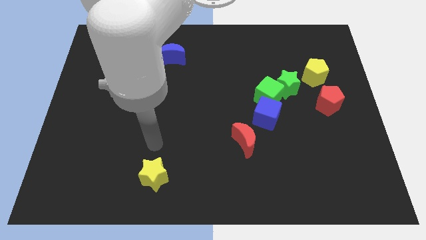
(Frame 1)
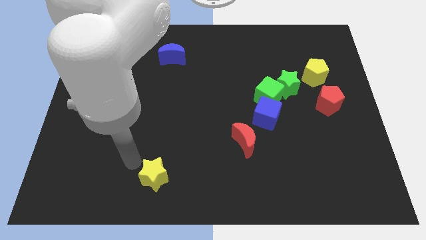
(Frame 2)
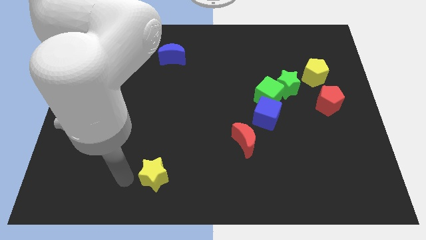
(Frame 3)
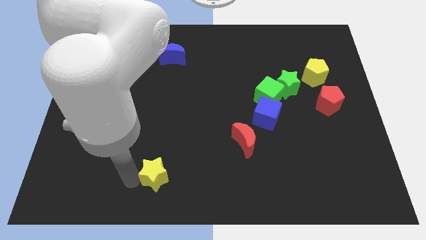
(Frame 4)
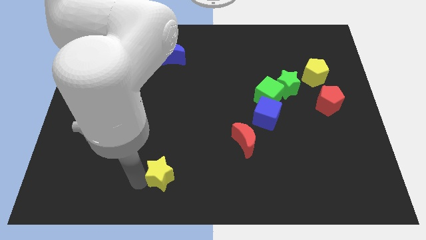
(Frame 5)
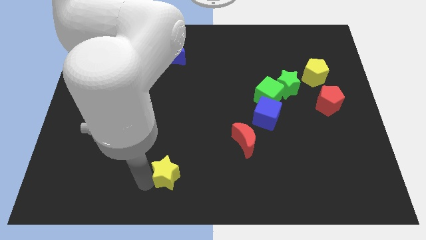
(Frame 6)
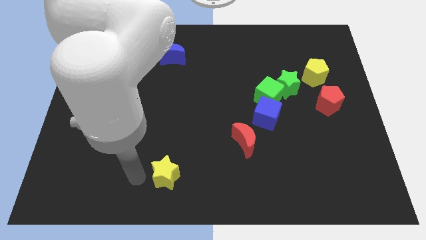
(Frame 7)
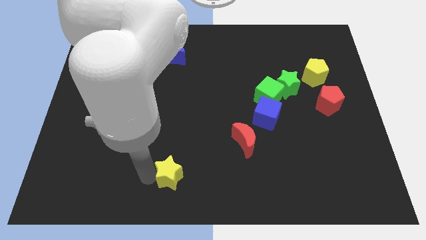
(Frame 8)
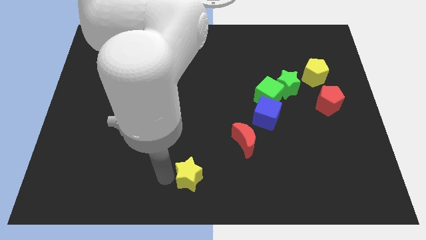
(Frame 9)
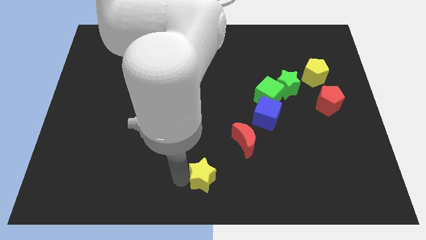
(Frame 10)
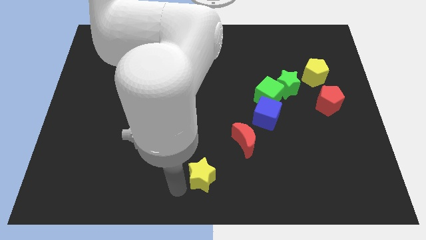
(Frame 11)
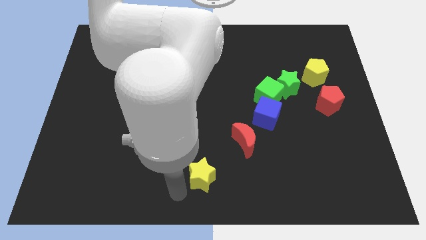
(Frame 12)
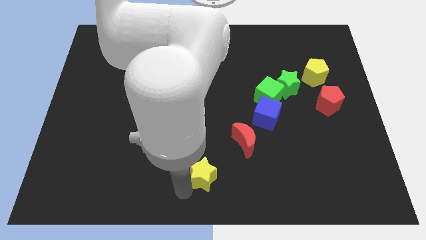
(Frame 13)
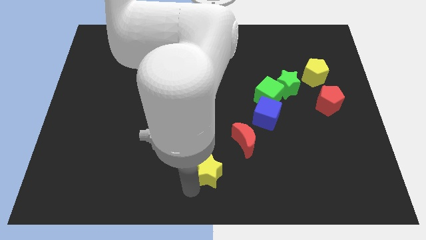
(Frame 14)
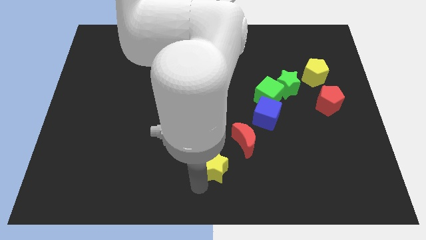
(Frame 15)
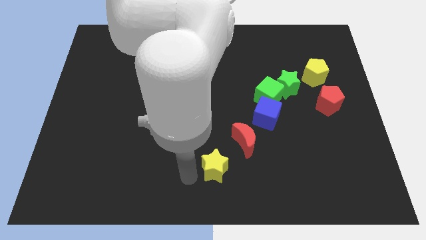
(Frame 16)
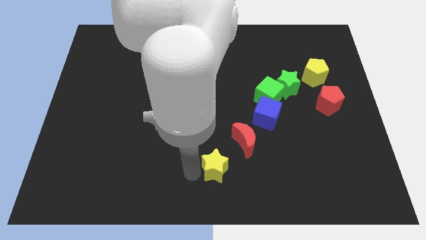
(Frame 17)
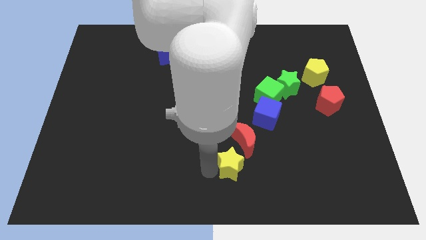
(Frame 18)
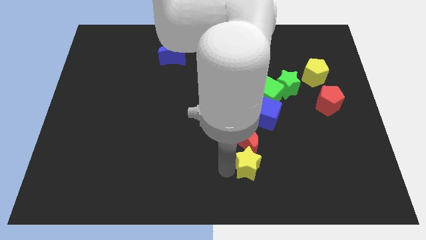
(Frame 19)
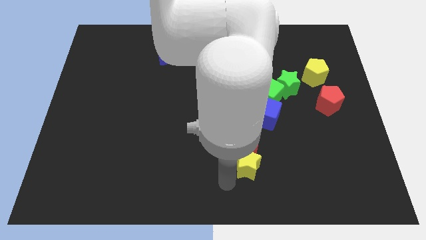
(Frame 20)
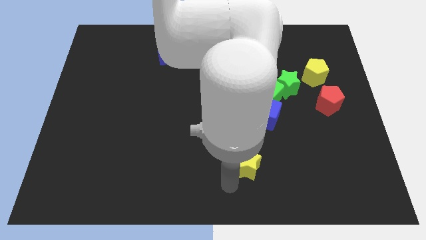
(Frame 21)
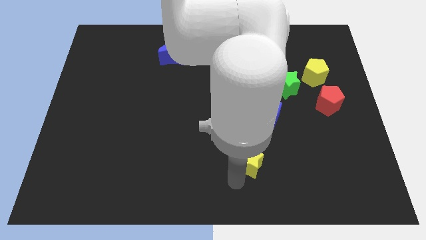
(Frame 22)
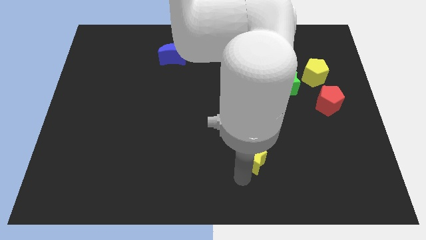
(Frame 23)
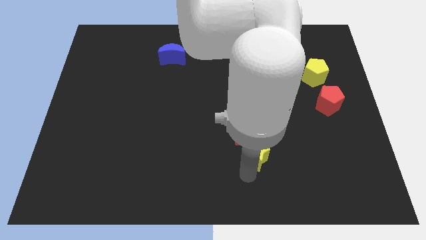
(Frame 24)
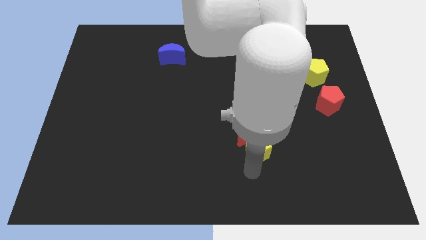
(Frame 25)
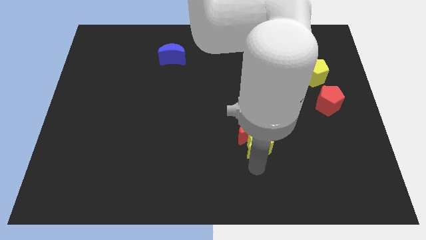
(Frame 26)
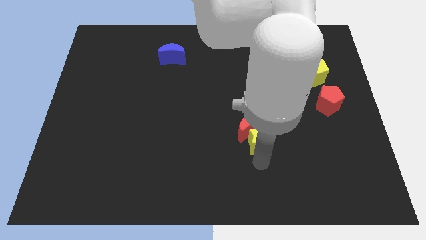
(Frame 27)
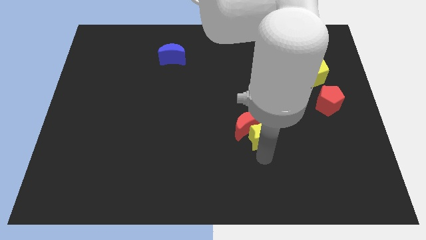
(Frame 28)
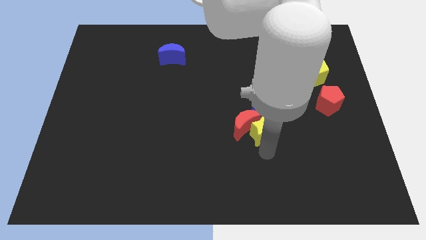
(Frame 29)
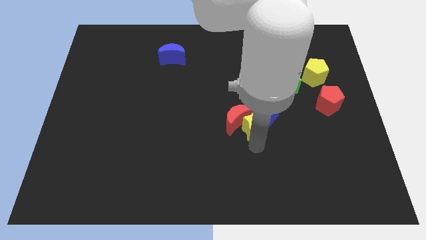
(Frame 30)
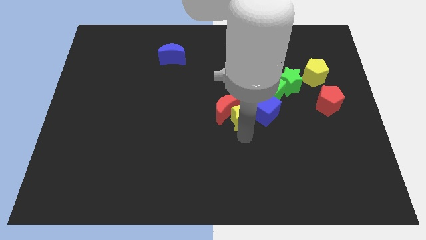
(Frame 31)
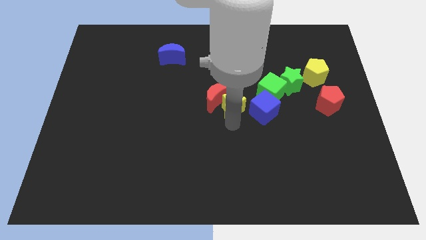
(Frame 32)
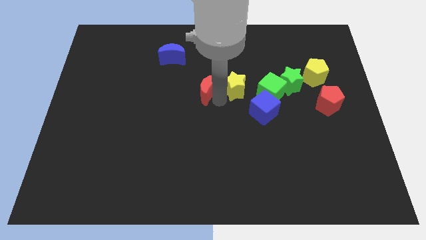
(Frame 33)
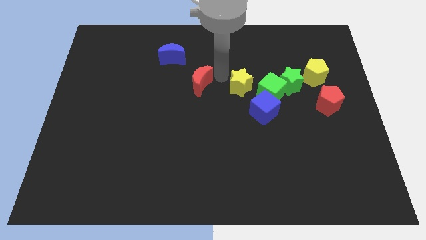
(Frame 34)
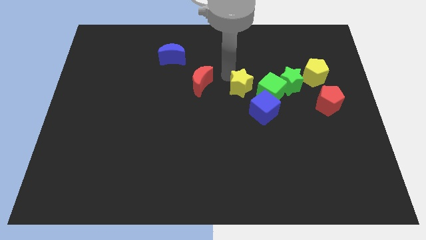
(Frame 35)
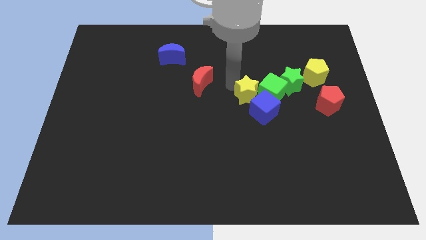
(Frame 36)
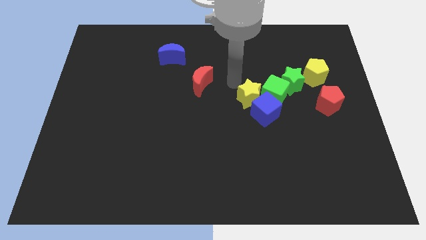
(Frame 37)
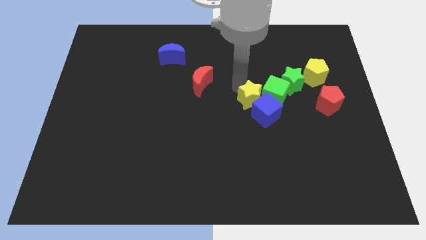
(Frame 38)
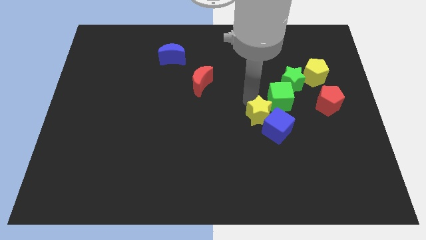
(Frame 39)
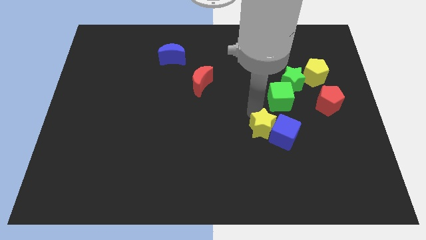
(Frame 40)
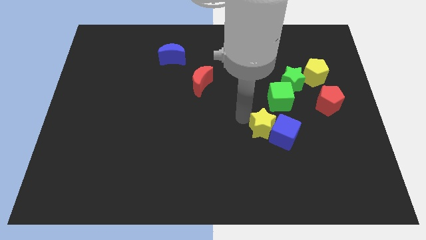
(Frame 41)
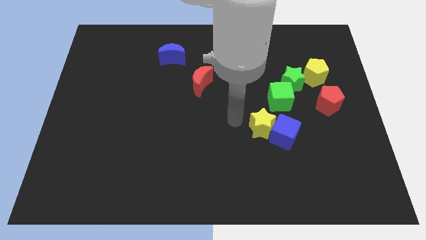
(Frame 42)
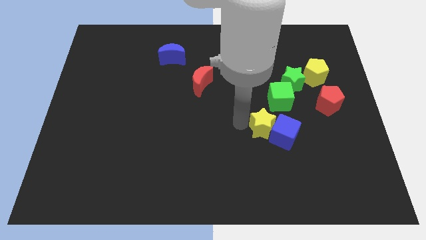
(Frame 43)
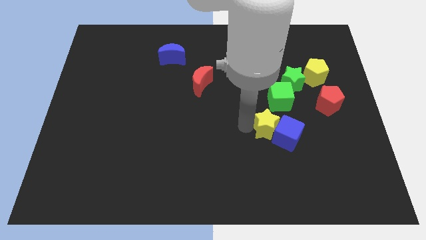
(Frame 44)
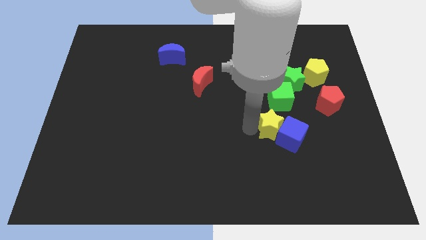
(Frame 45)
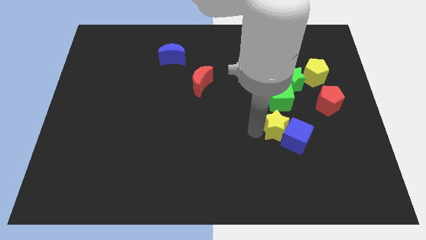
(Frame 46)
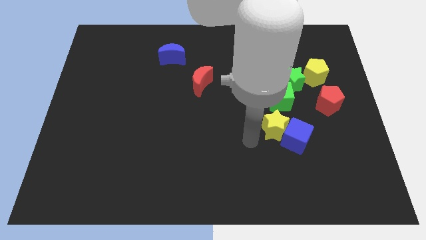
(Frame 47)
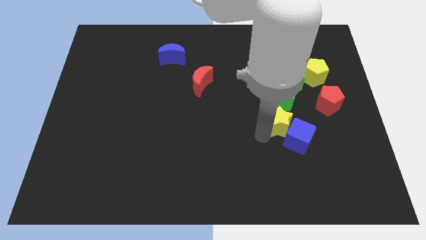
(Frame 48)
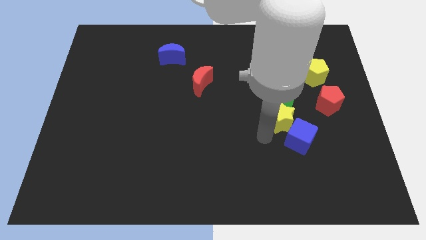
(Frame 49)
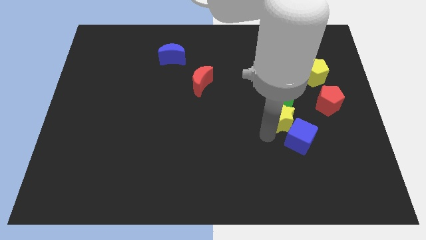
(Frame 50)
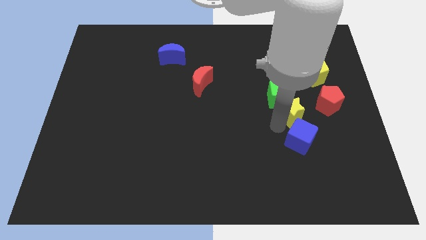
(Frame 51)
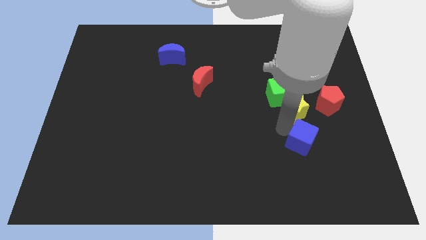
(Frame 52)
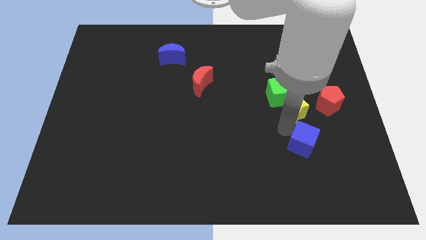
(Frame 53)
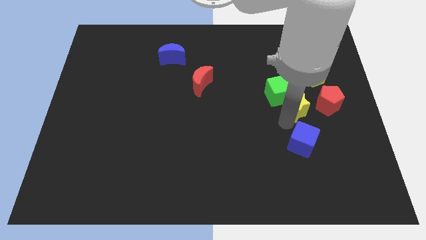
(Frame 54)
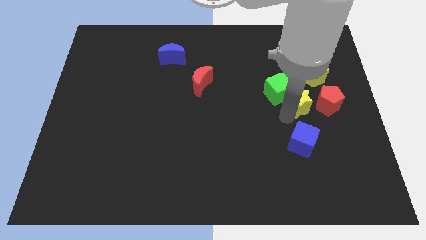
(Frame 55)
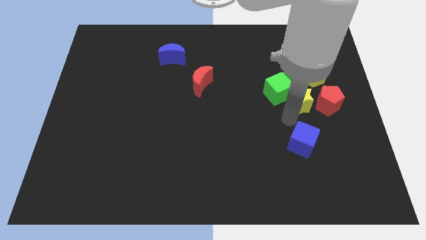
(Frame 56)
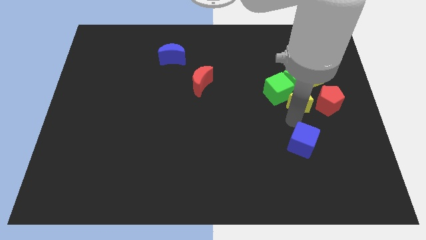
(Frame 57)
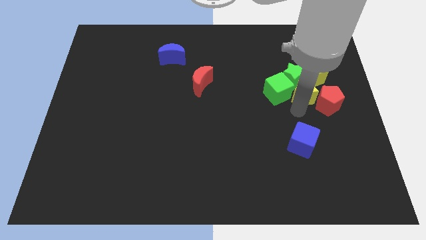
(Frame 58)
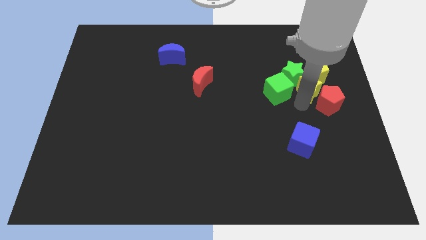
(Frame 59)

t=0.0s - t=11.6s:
move the yellow star next to the yellow pentagon

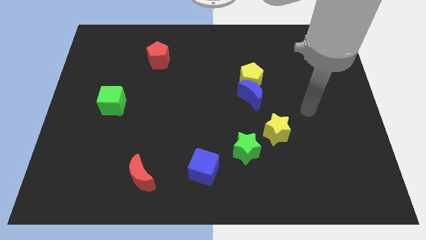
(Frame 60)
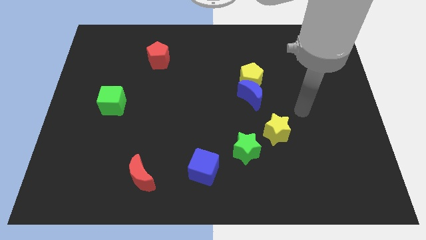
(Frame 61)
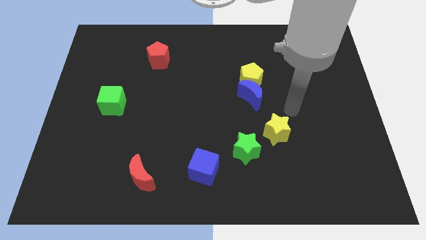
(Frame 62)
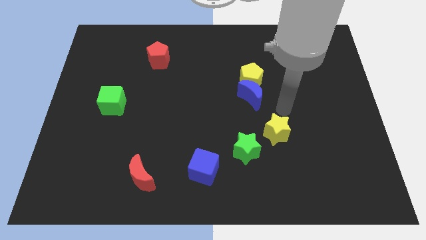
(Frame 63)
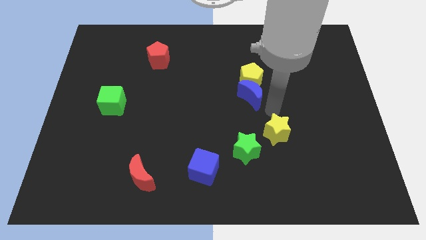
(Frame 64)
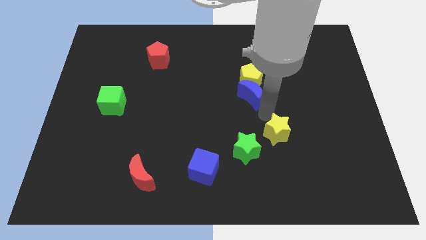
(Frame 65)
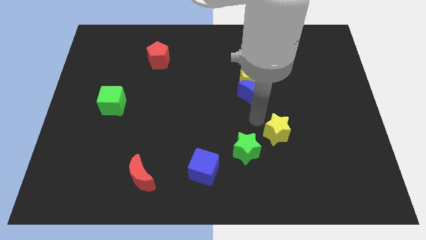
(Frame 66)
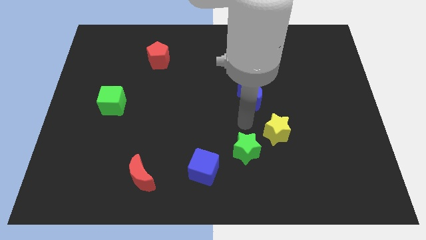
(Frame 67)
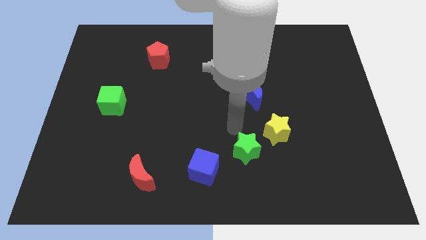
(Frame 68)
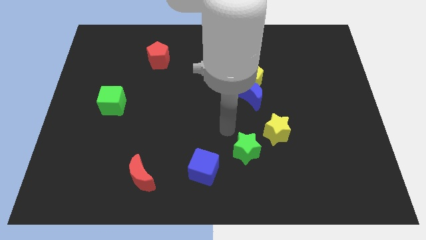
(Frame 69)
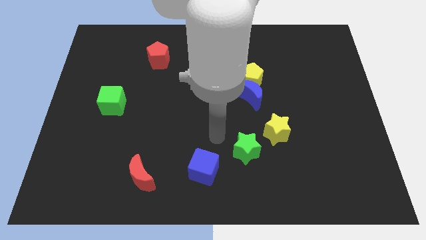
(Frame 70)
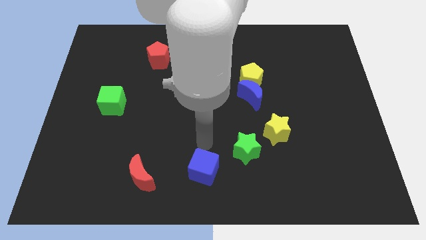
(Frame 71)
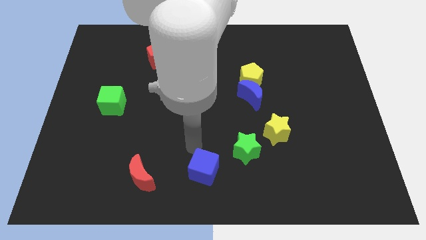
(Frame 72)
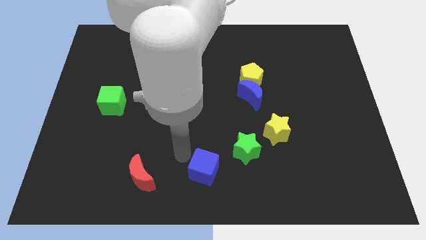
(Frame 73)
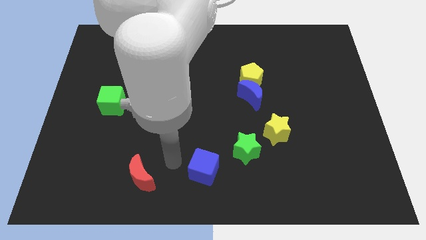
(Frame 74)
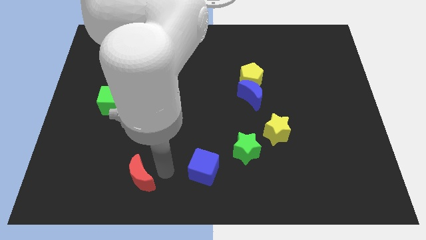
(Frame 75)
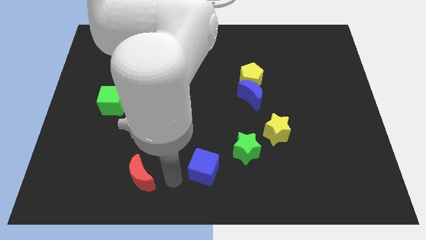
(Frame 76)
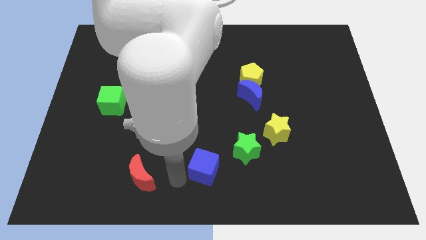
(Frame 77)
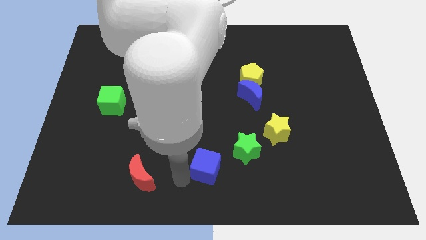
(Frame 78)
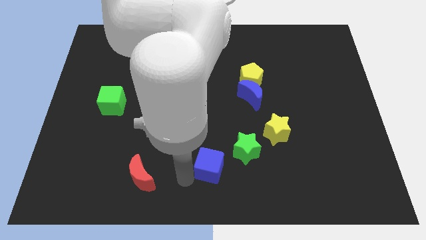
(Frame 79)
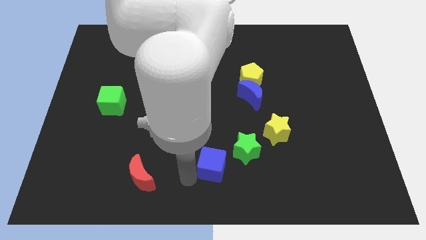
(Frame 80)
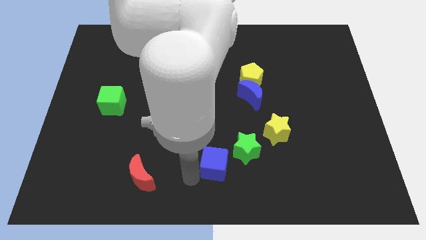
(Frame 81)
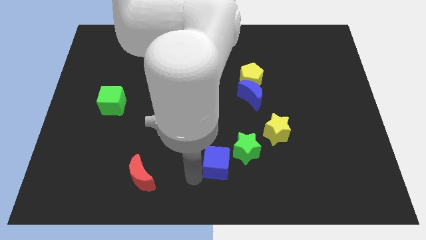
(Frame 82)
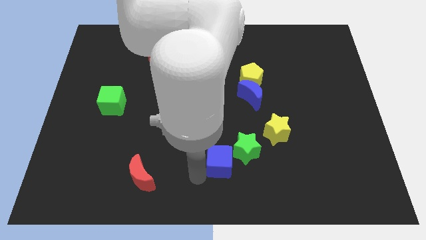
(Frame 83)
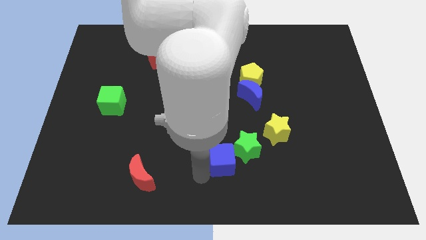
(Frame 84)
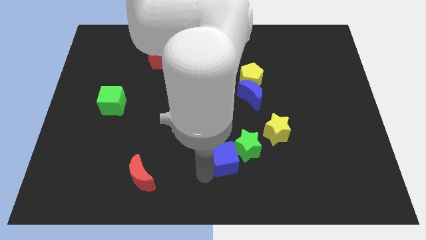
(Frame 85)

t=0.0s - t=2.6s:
move the blue cube to the green star
